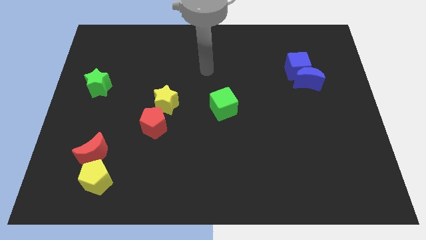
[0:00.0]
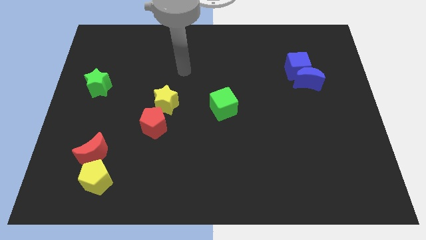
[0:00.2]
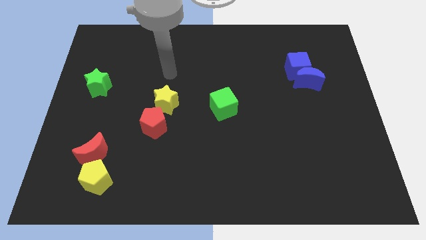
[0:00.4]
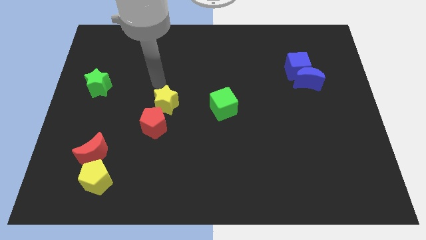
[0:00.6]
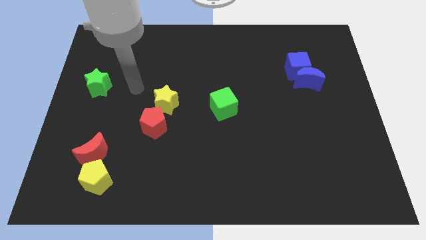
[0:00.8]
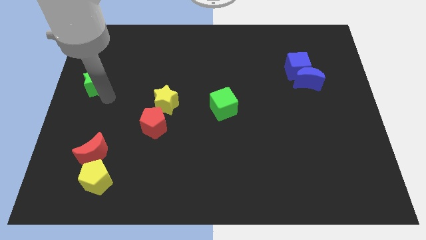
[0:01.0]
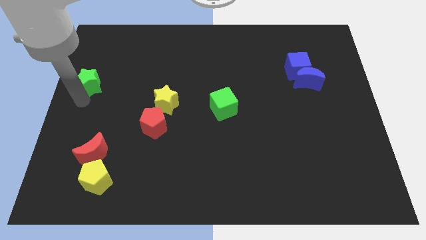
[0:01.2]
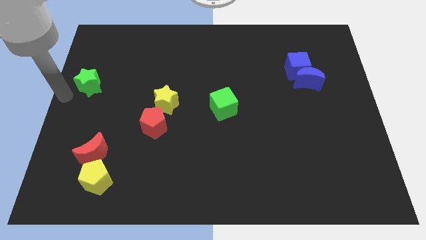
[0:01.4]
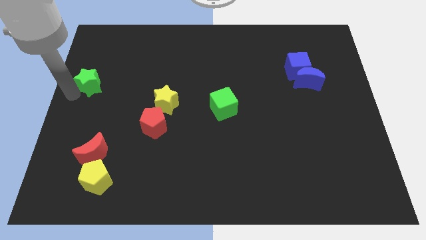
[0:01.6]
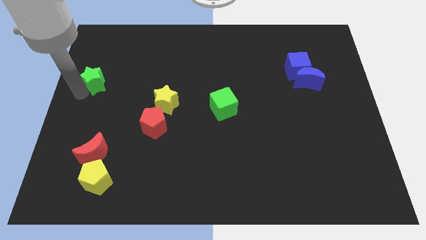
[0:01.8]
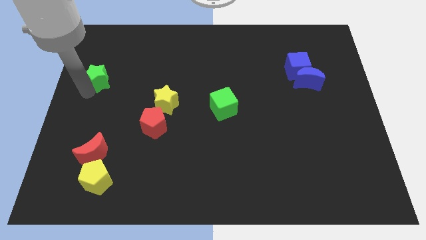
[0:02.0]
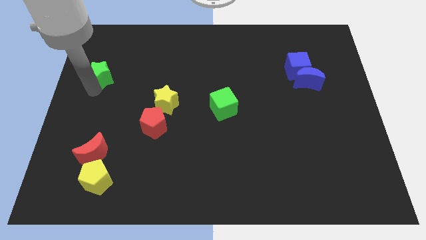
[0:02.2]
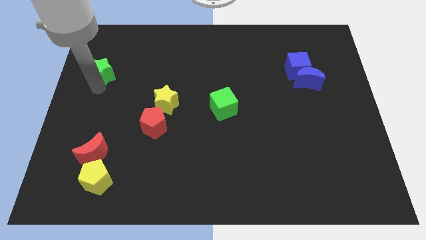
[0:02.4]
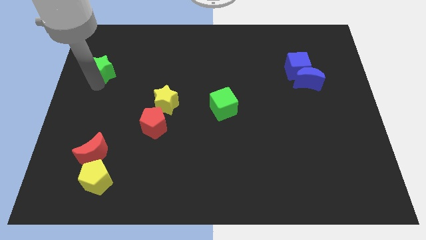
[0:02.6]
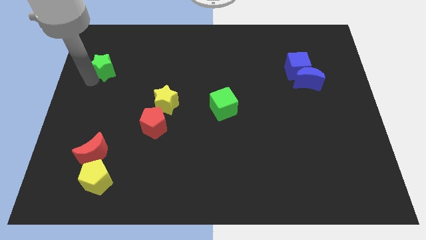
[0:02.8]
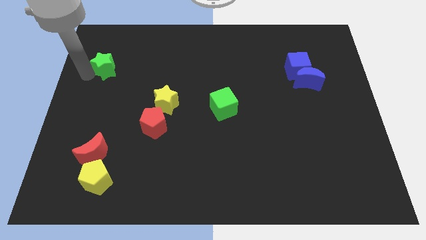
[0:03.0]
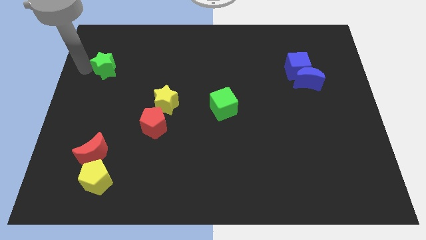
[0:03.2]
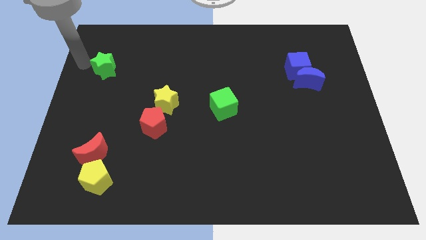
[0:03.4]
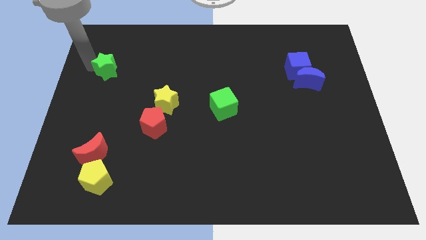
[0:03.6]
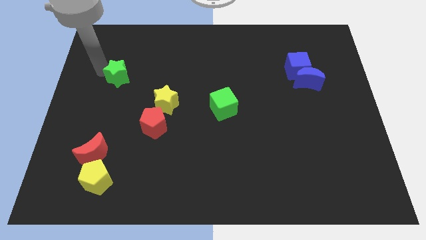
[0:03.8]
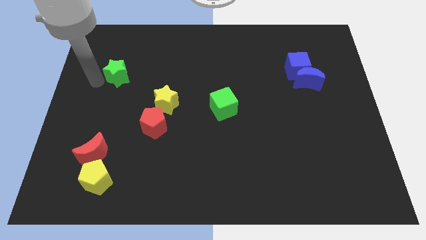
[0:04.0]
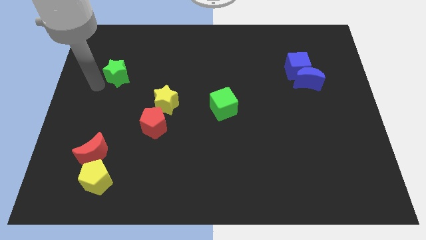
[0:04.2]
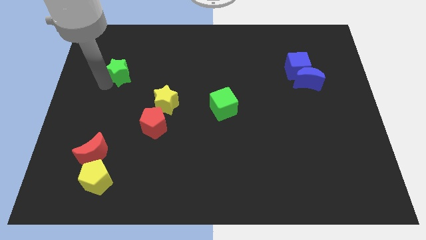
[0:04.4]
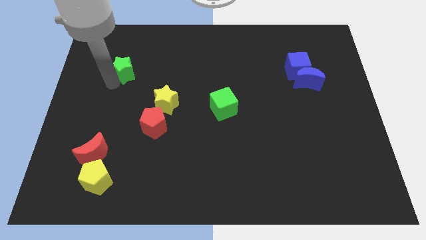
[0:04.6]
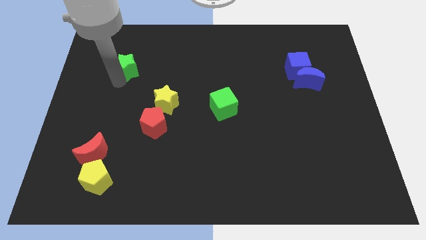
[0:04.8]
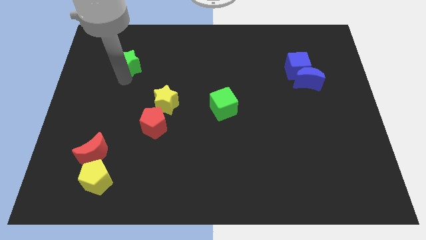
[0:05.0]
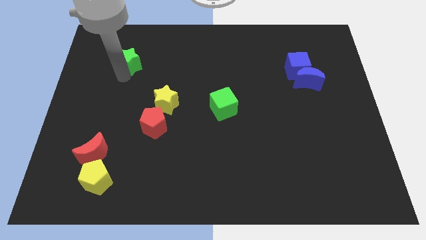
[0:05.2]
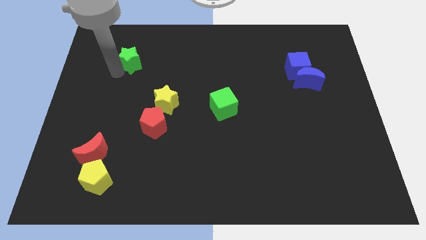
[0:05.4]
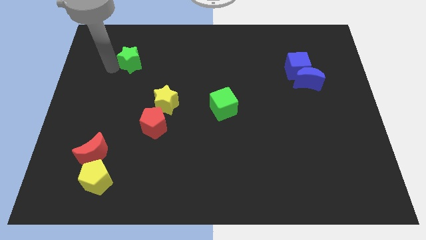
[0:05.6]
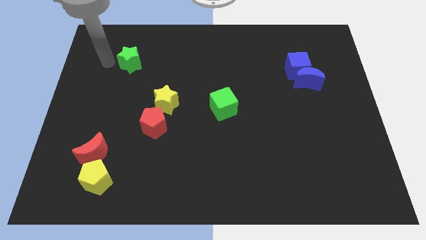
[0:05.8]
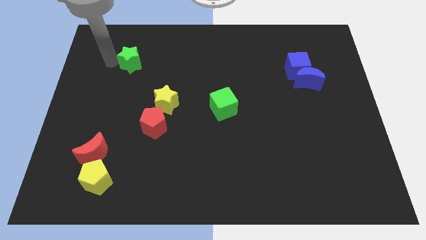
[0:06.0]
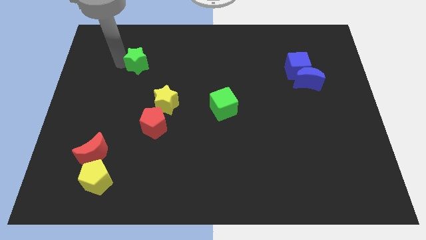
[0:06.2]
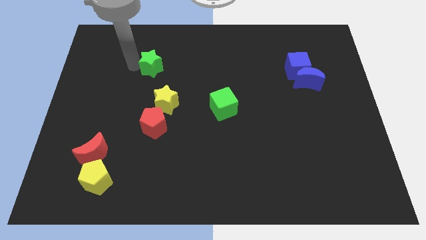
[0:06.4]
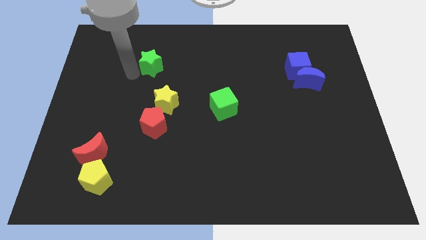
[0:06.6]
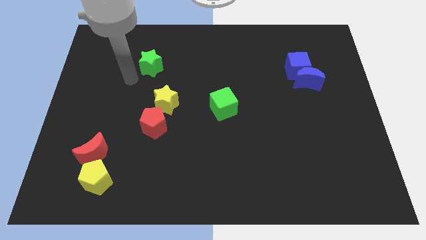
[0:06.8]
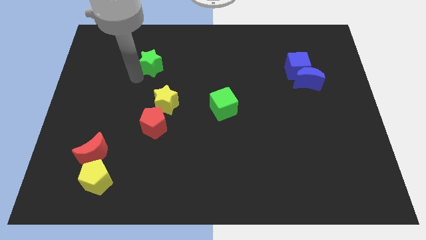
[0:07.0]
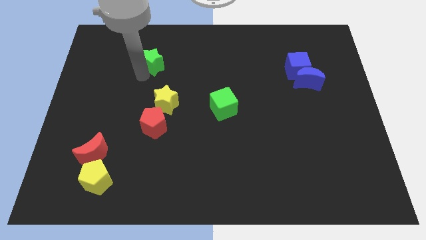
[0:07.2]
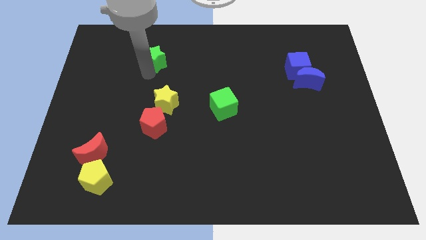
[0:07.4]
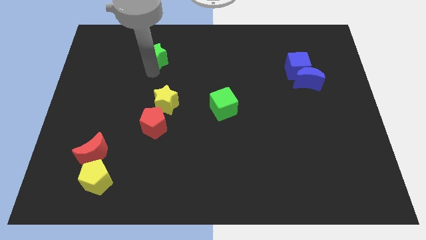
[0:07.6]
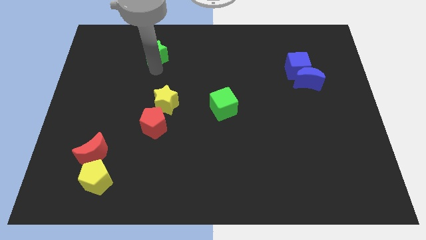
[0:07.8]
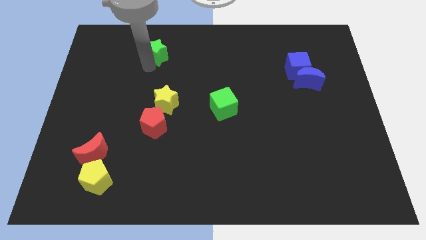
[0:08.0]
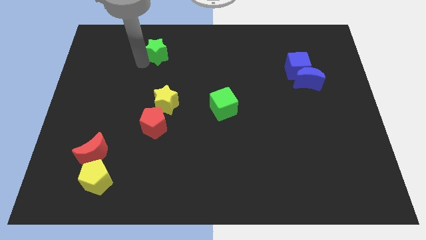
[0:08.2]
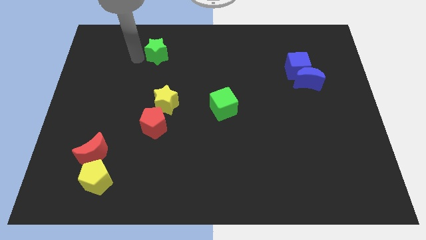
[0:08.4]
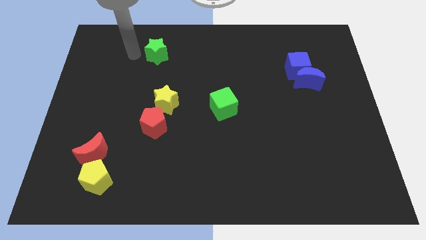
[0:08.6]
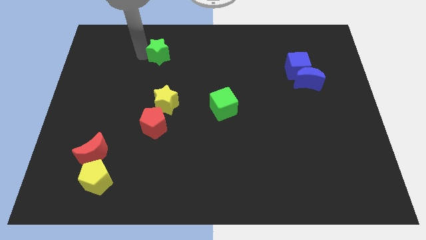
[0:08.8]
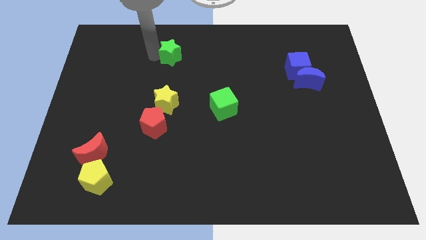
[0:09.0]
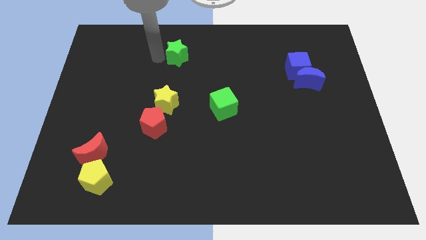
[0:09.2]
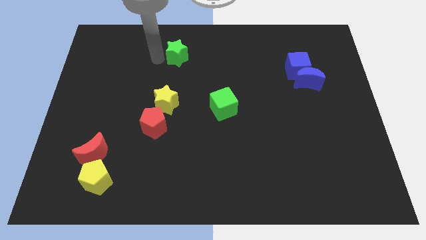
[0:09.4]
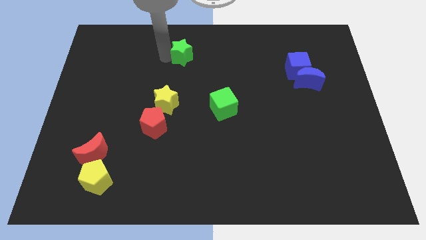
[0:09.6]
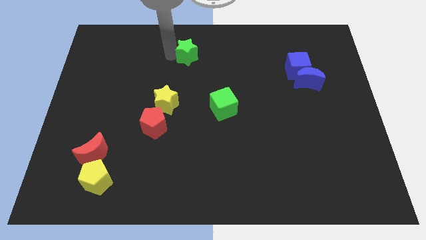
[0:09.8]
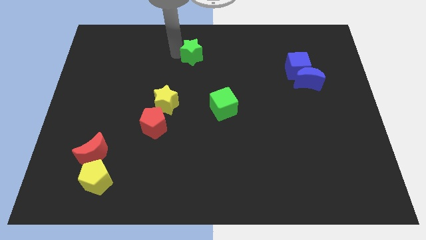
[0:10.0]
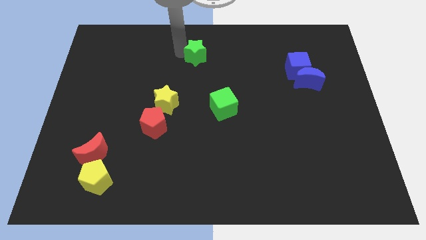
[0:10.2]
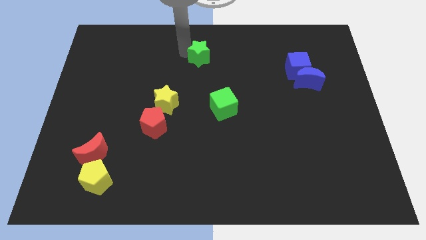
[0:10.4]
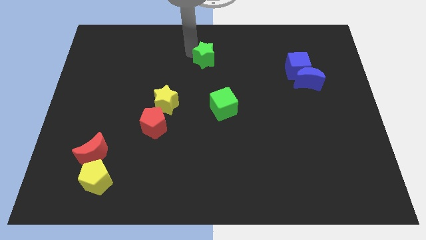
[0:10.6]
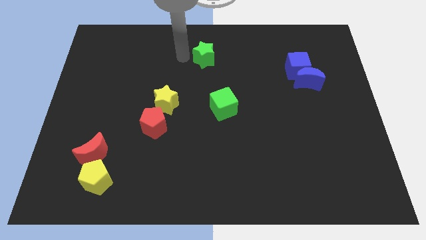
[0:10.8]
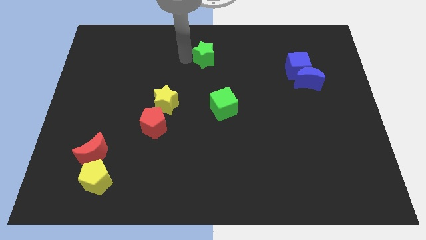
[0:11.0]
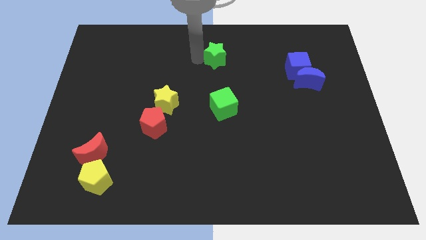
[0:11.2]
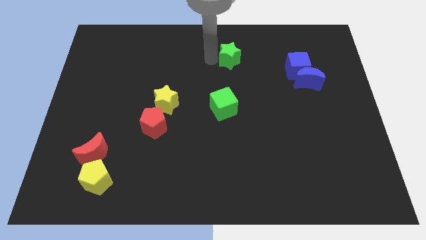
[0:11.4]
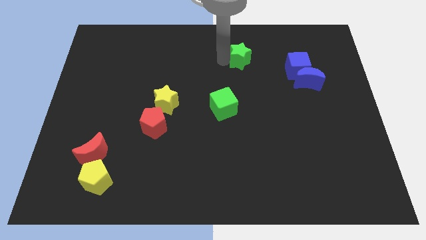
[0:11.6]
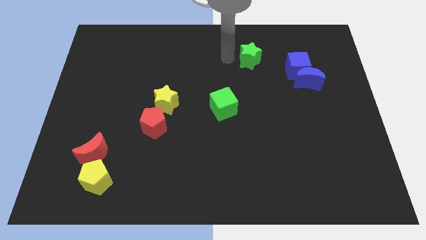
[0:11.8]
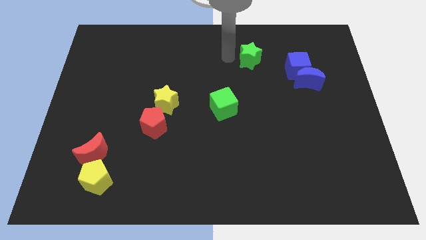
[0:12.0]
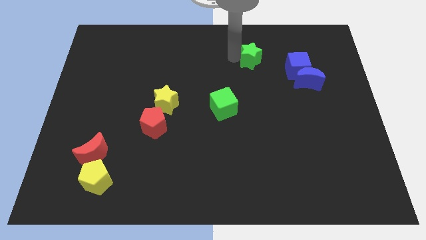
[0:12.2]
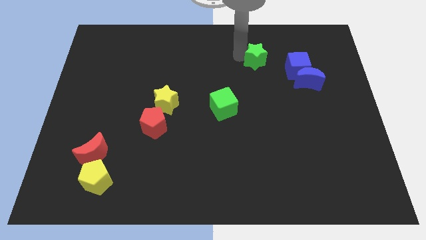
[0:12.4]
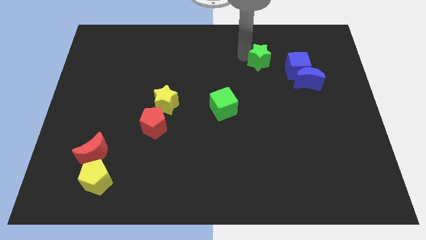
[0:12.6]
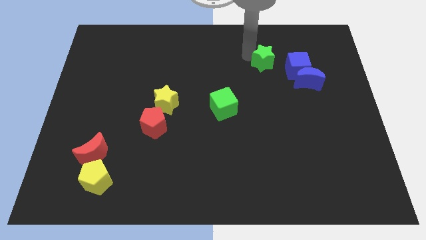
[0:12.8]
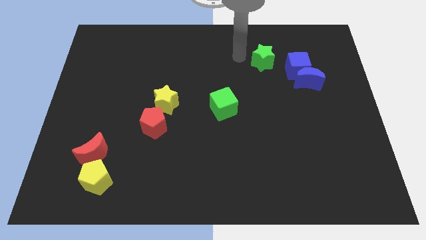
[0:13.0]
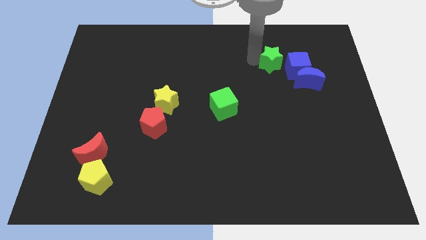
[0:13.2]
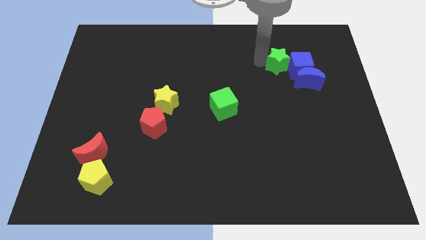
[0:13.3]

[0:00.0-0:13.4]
slide the green star close to the blue cube
